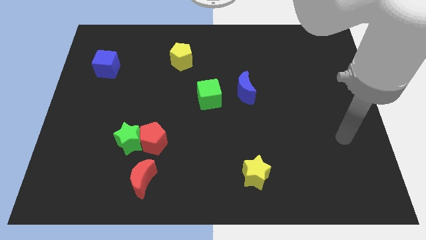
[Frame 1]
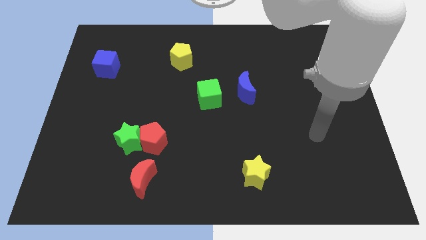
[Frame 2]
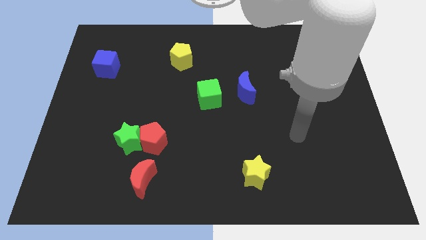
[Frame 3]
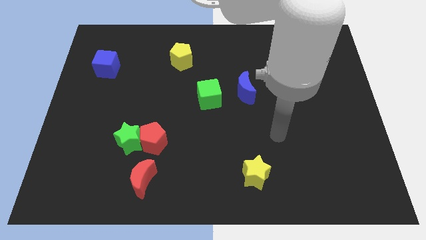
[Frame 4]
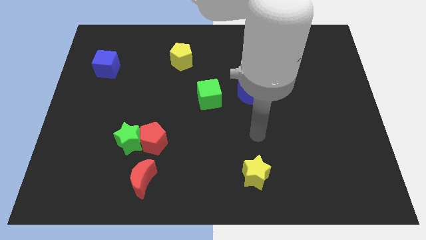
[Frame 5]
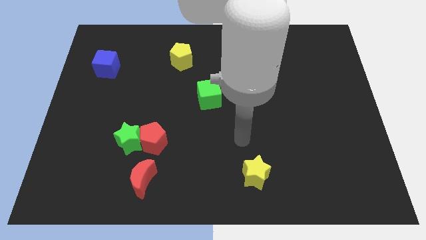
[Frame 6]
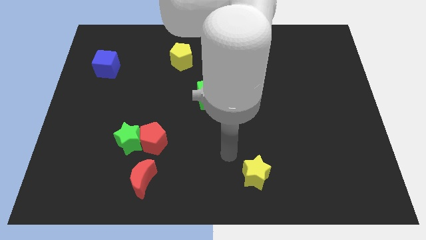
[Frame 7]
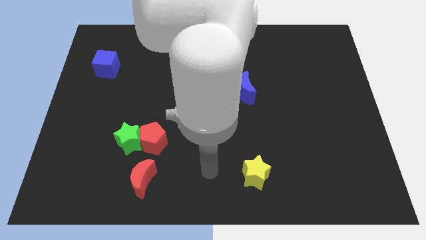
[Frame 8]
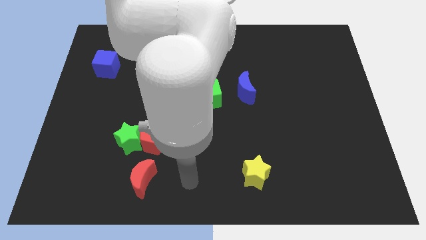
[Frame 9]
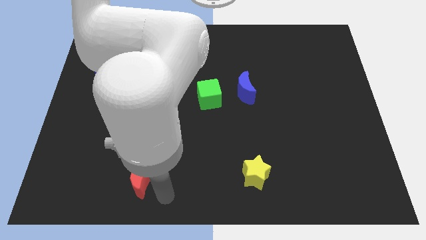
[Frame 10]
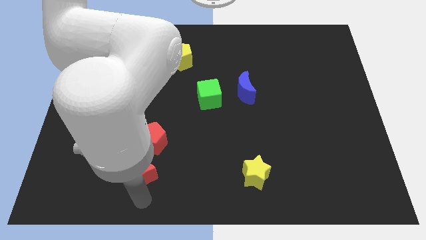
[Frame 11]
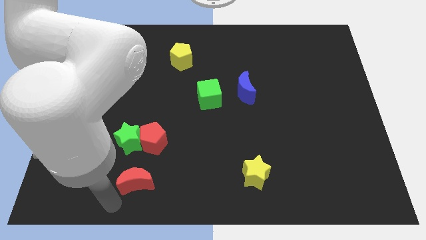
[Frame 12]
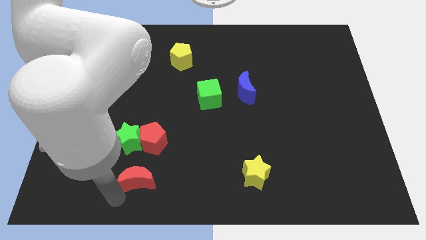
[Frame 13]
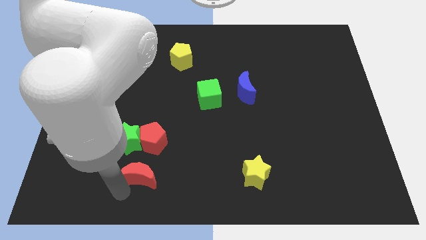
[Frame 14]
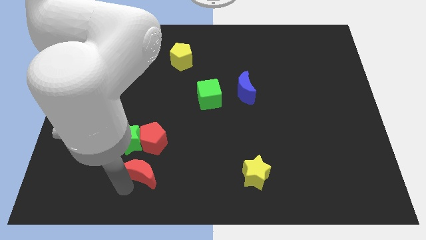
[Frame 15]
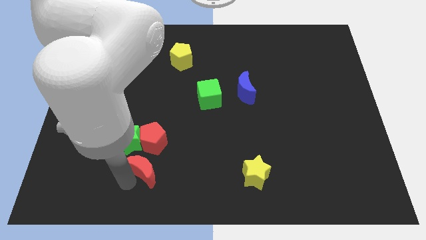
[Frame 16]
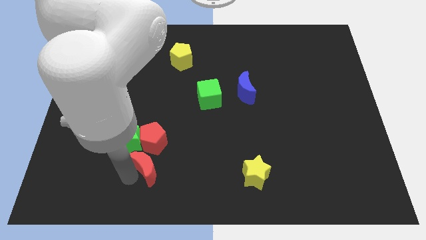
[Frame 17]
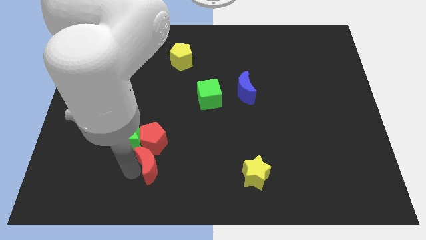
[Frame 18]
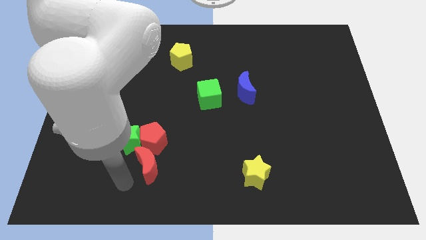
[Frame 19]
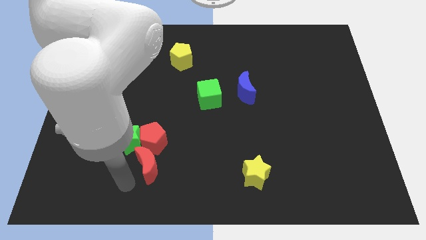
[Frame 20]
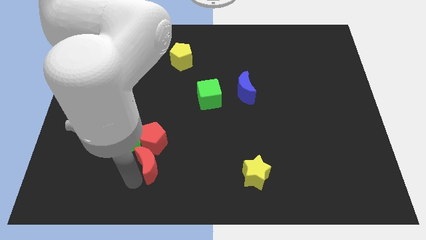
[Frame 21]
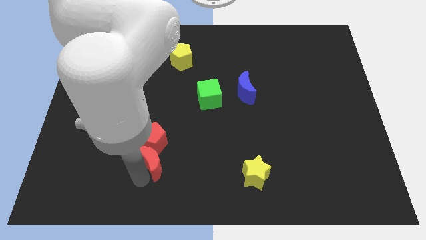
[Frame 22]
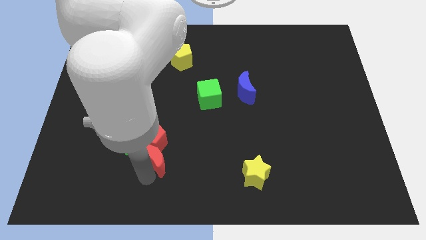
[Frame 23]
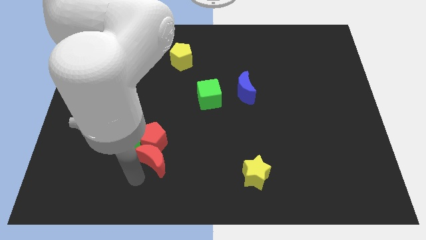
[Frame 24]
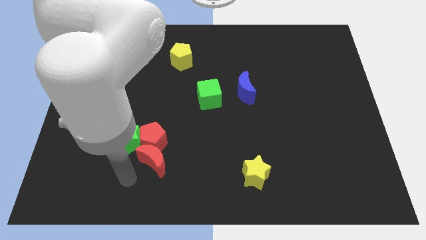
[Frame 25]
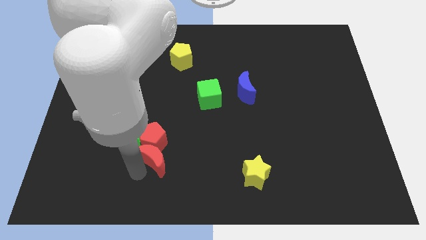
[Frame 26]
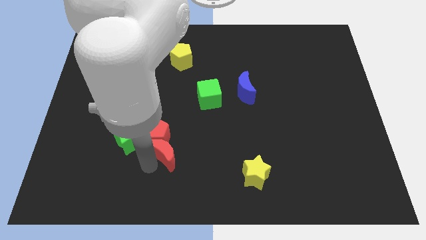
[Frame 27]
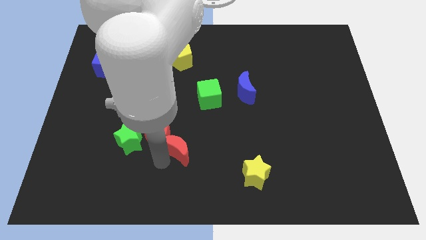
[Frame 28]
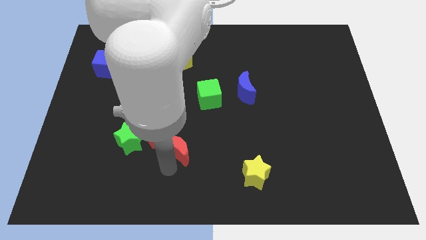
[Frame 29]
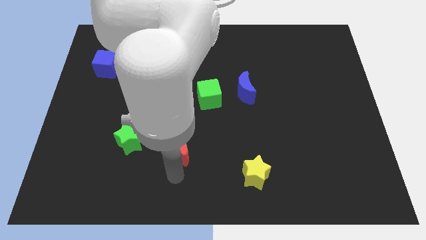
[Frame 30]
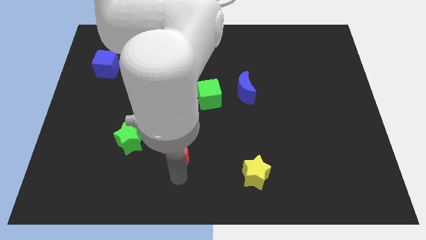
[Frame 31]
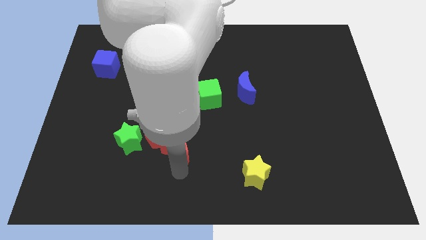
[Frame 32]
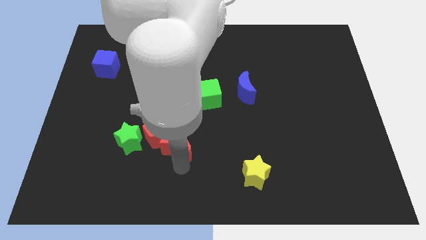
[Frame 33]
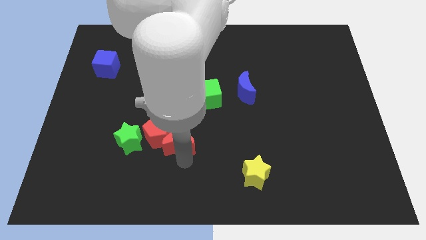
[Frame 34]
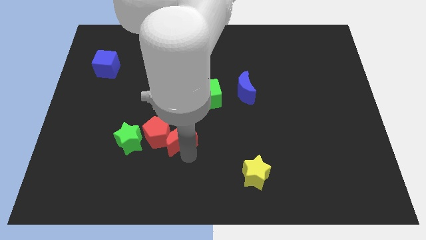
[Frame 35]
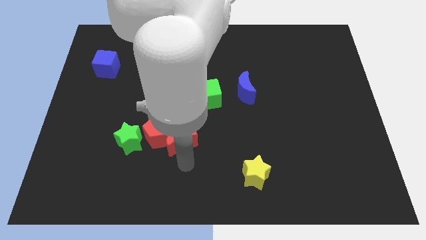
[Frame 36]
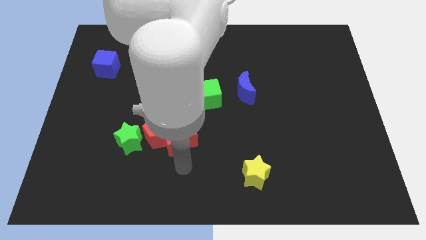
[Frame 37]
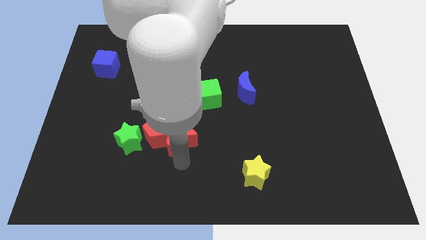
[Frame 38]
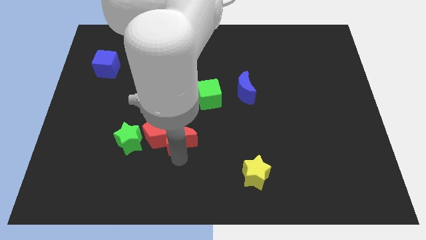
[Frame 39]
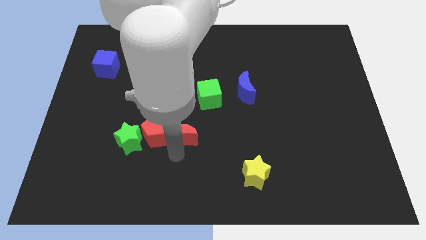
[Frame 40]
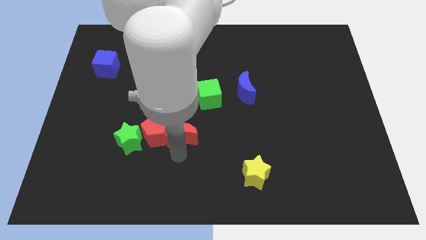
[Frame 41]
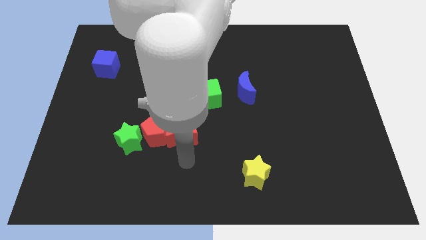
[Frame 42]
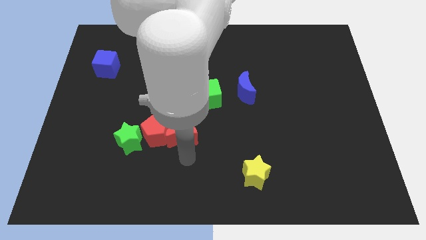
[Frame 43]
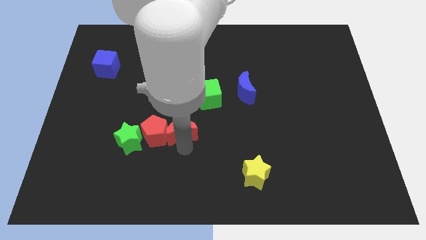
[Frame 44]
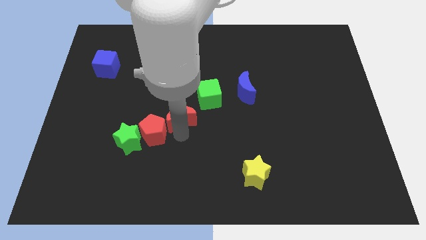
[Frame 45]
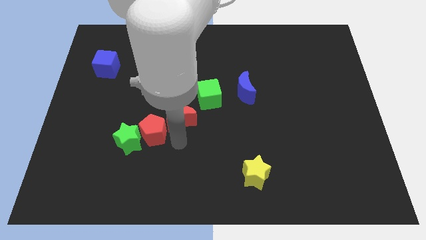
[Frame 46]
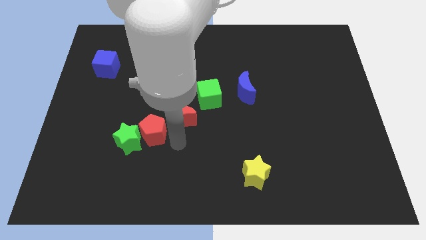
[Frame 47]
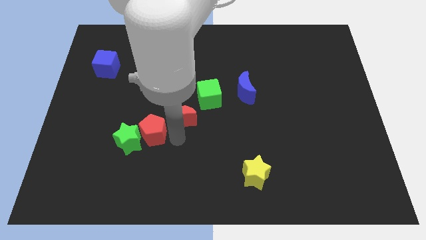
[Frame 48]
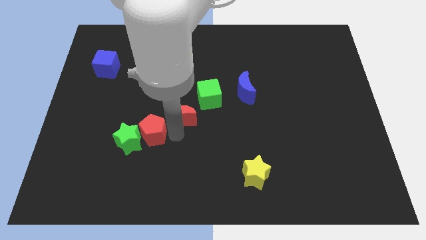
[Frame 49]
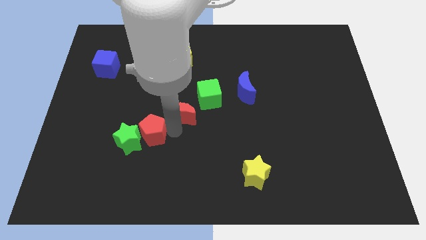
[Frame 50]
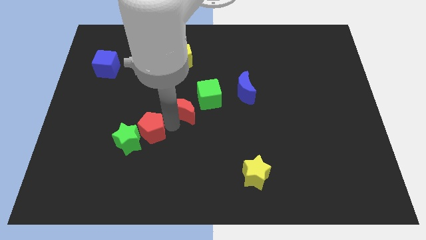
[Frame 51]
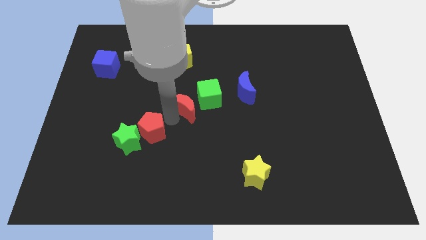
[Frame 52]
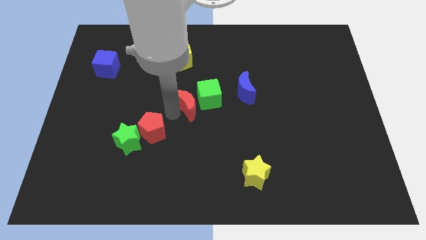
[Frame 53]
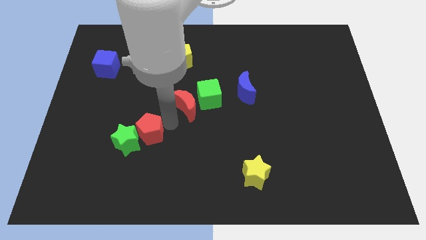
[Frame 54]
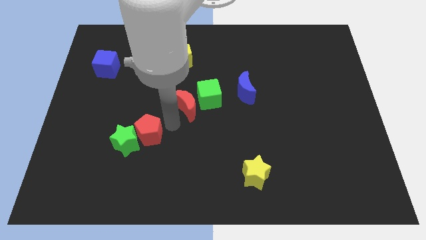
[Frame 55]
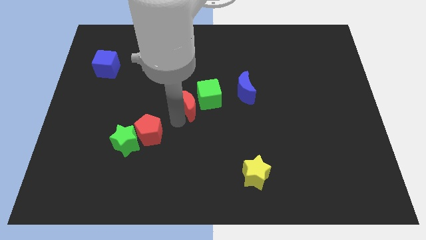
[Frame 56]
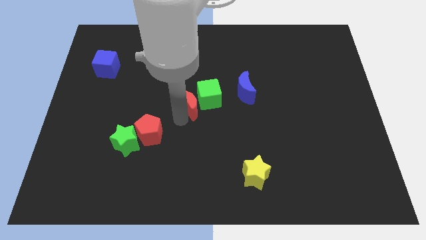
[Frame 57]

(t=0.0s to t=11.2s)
put the red moon to the left side of the blue moon
